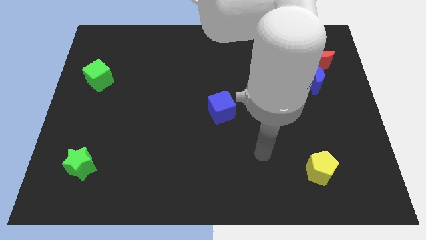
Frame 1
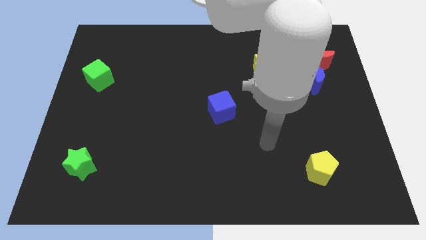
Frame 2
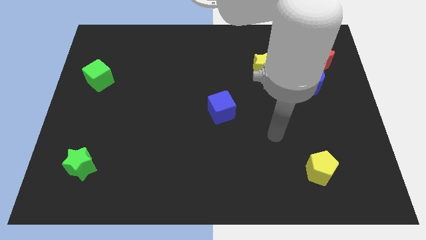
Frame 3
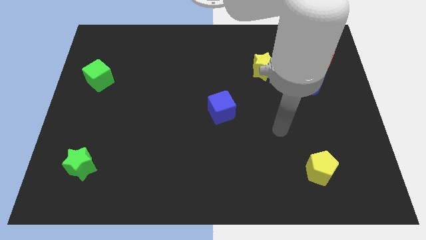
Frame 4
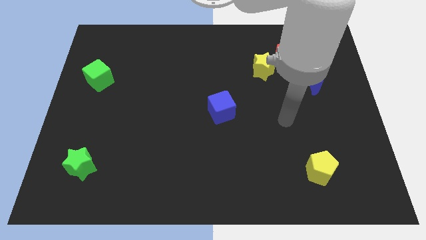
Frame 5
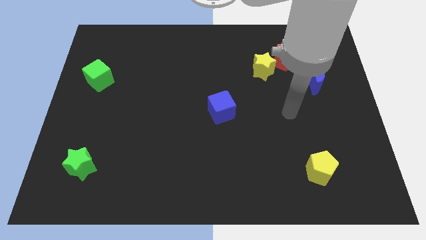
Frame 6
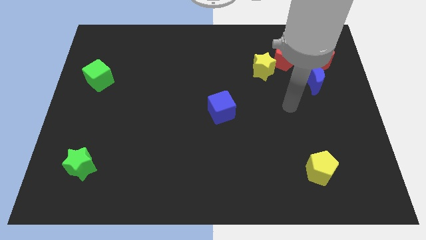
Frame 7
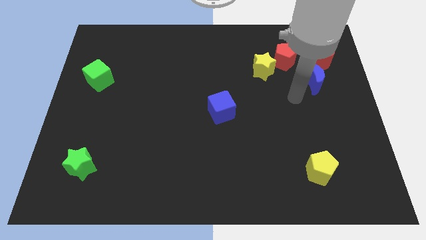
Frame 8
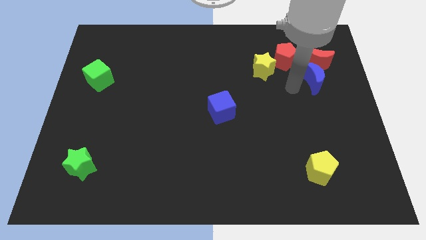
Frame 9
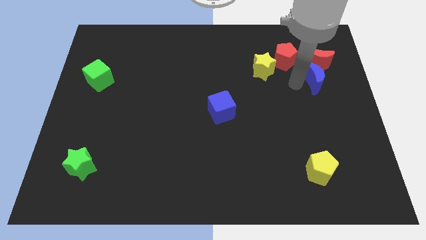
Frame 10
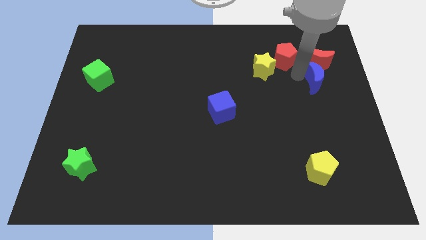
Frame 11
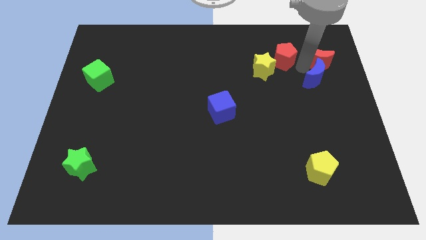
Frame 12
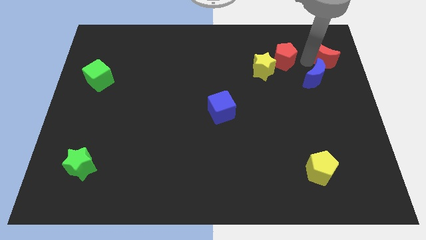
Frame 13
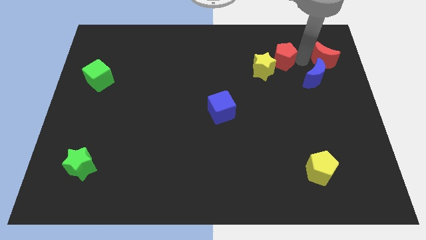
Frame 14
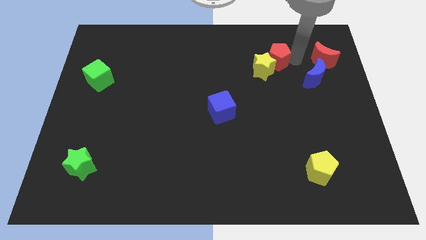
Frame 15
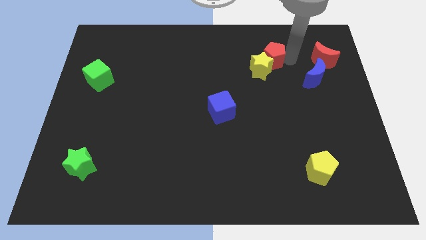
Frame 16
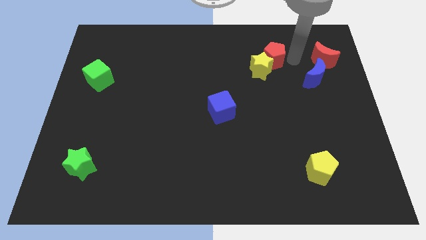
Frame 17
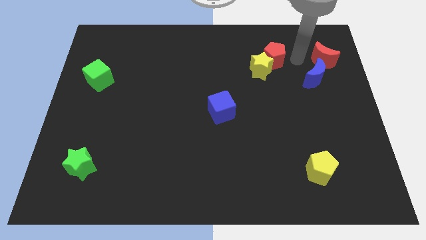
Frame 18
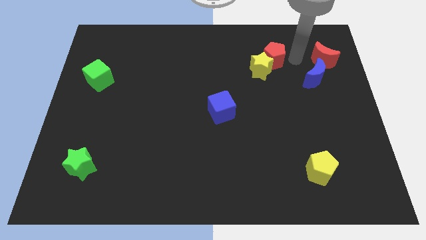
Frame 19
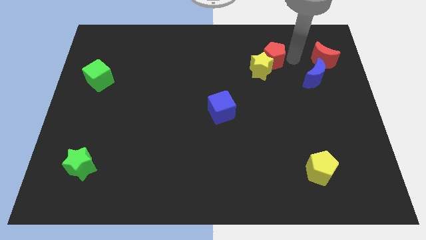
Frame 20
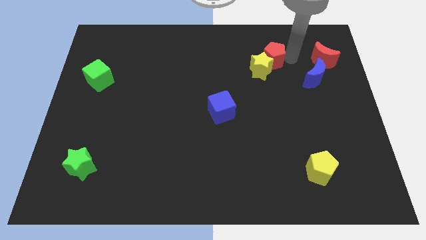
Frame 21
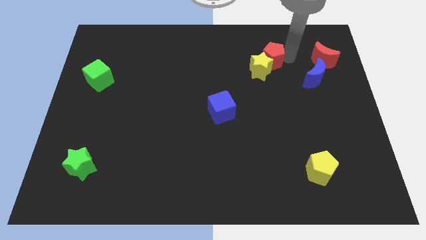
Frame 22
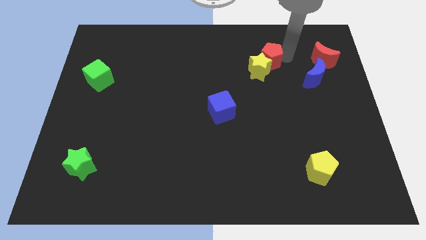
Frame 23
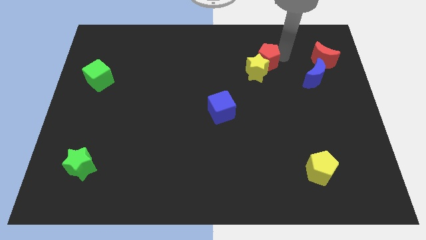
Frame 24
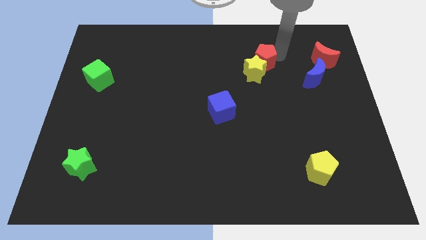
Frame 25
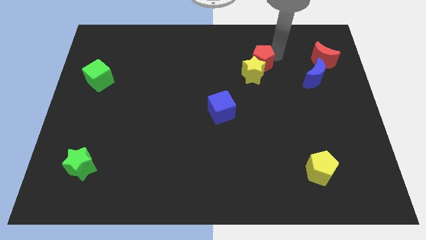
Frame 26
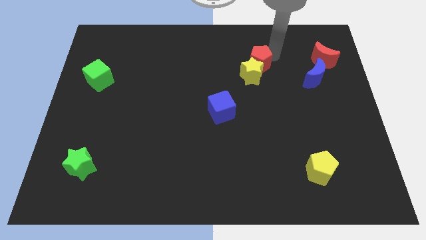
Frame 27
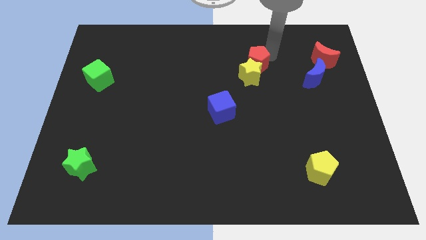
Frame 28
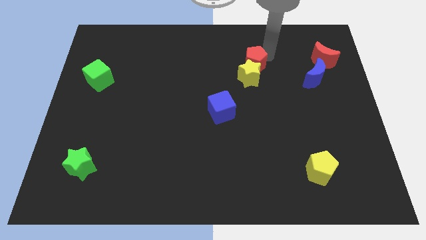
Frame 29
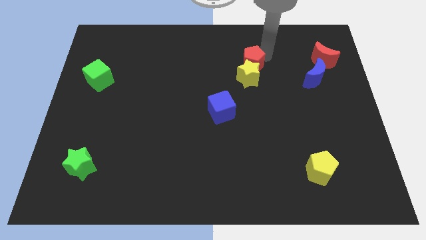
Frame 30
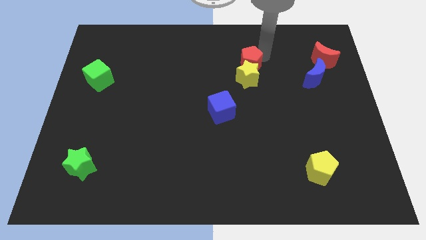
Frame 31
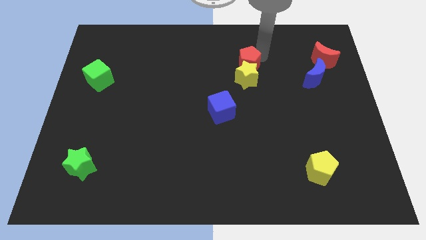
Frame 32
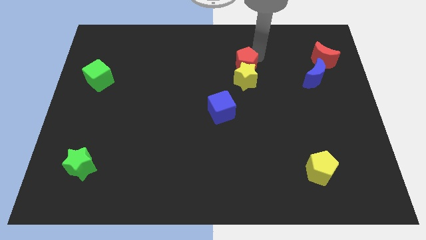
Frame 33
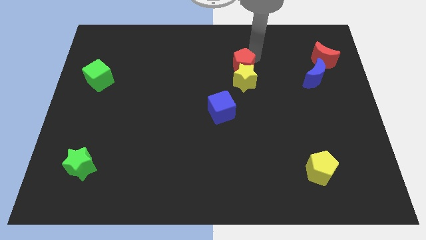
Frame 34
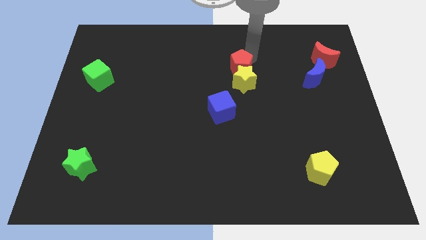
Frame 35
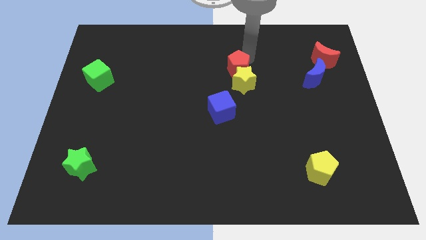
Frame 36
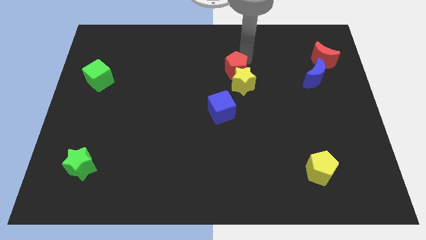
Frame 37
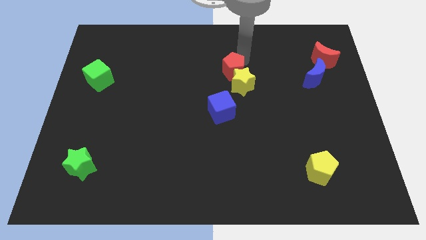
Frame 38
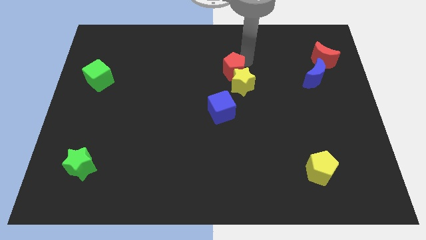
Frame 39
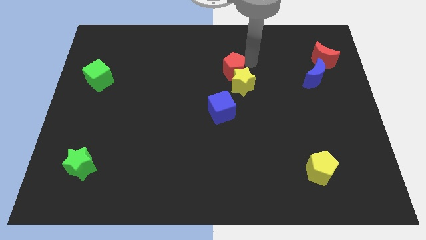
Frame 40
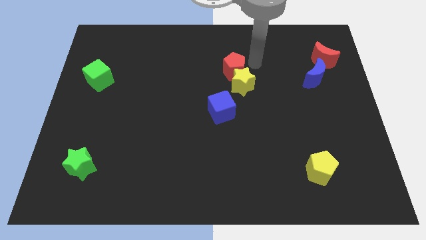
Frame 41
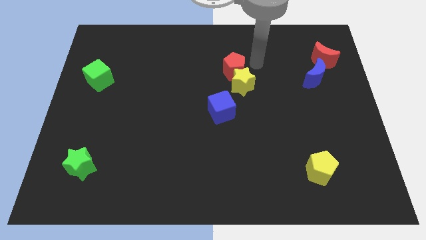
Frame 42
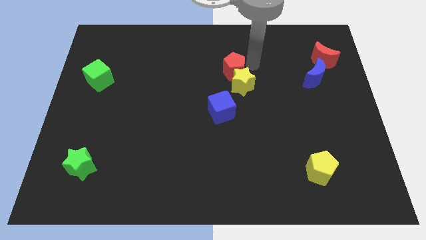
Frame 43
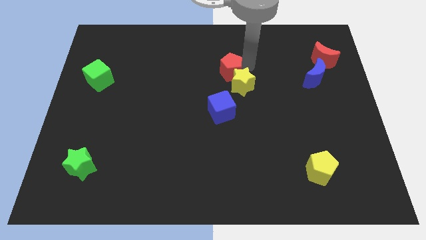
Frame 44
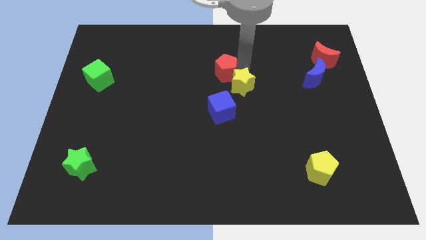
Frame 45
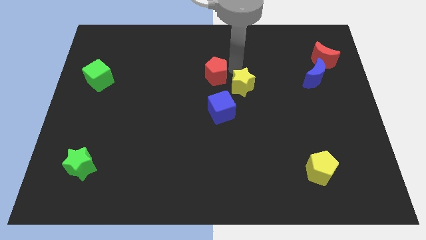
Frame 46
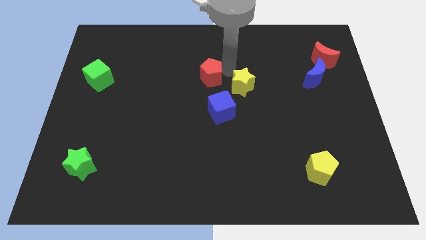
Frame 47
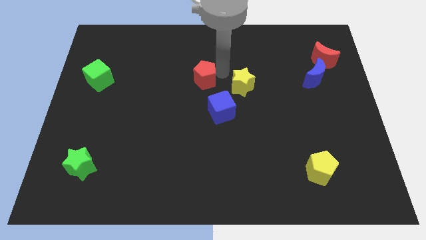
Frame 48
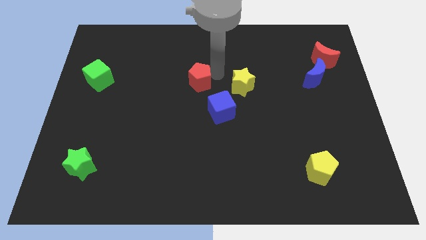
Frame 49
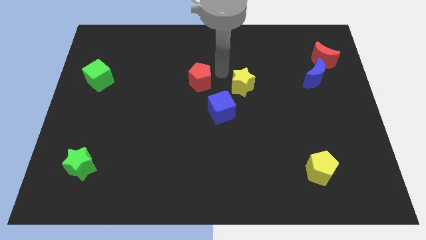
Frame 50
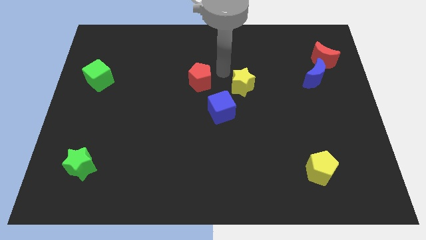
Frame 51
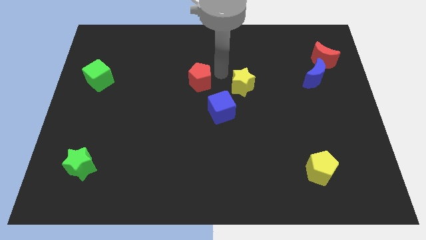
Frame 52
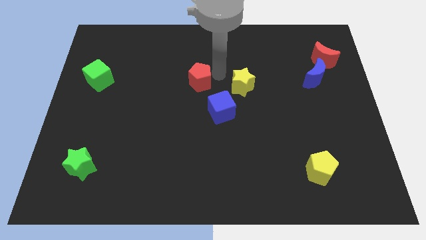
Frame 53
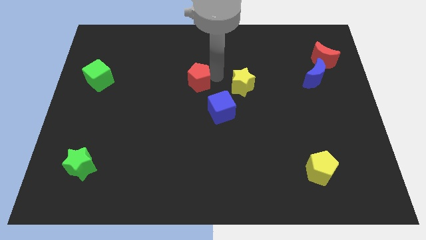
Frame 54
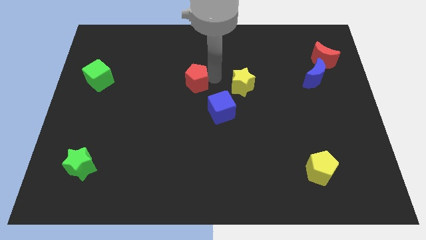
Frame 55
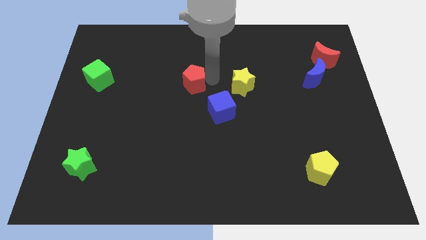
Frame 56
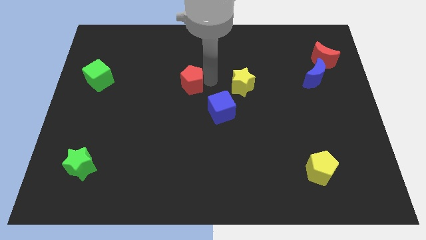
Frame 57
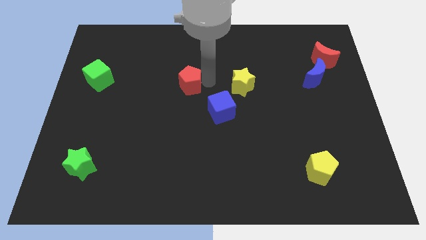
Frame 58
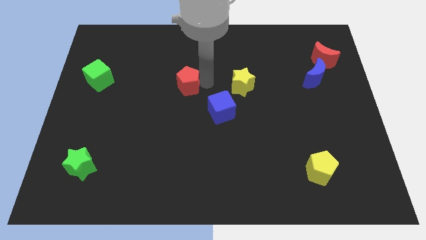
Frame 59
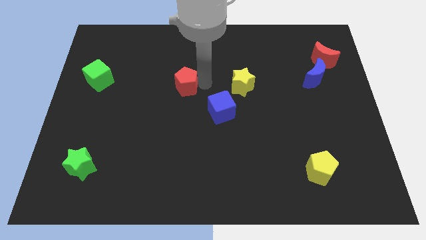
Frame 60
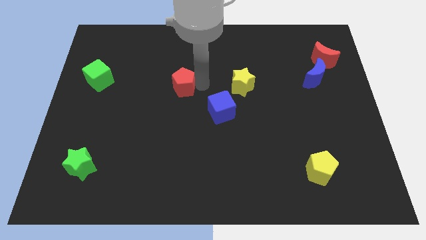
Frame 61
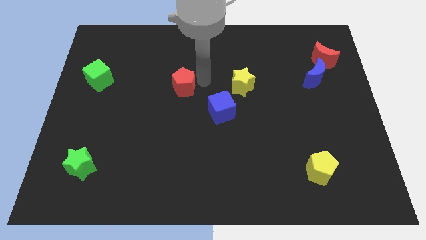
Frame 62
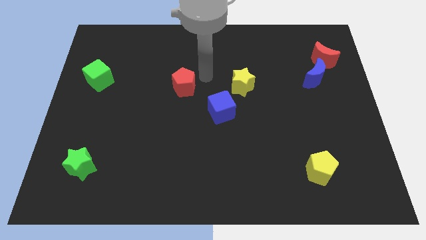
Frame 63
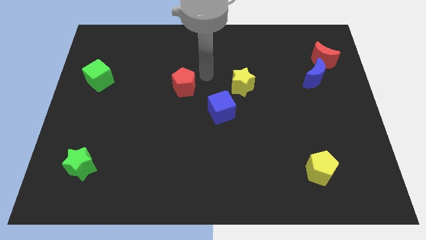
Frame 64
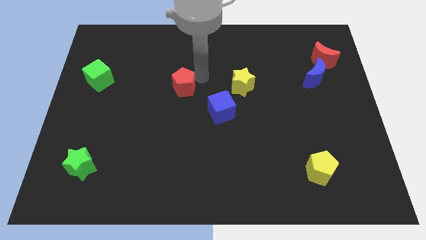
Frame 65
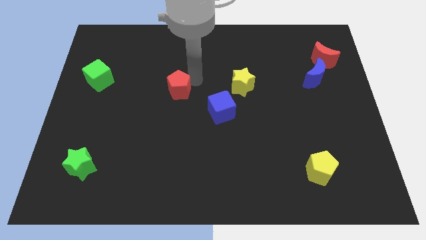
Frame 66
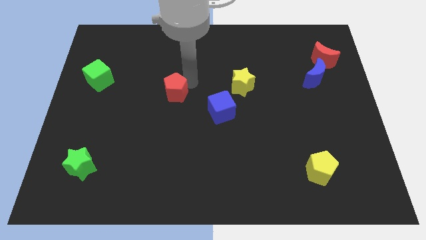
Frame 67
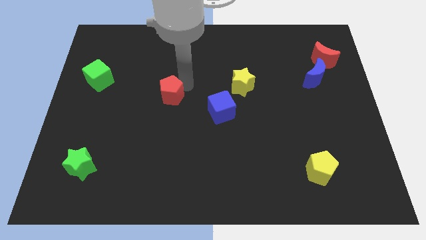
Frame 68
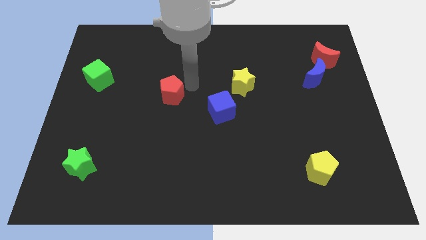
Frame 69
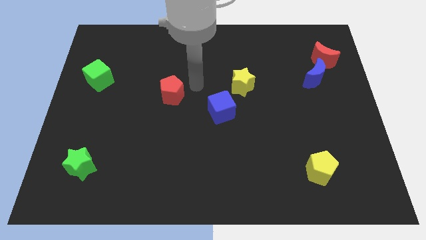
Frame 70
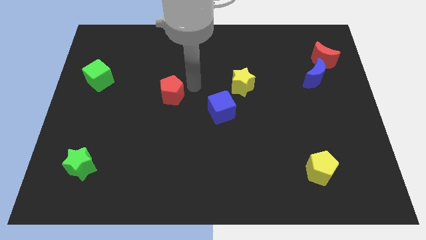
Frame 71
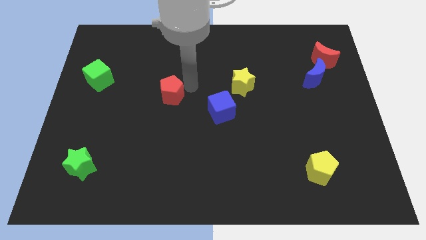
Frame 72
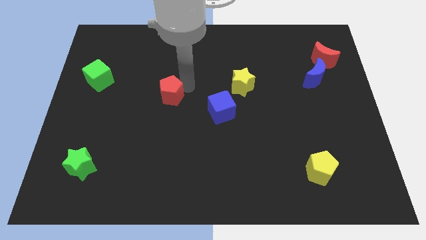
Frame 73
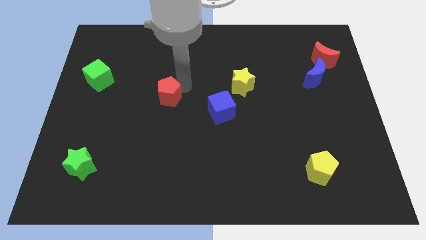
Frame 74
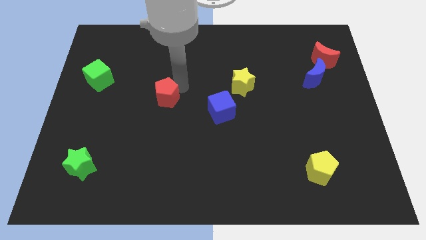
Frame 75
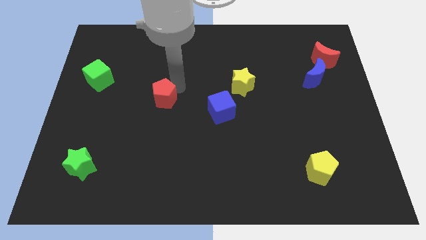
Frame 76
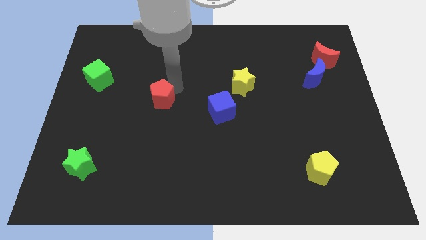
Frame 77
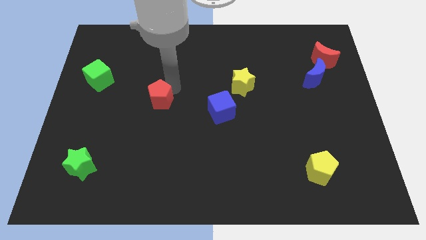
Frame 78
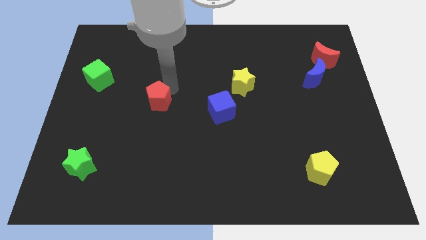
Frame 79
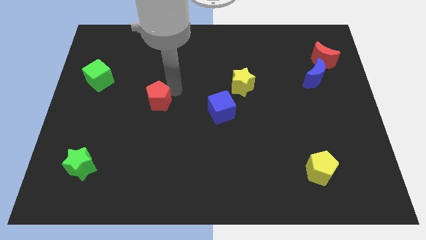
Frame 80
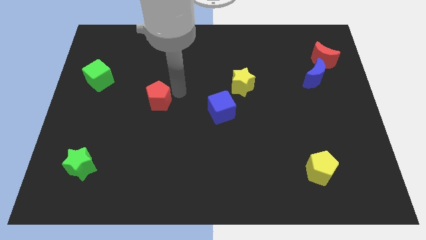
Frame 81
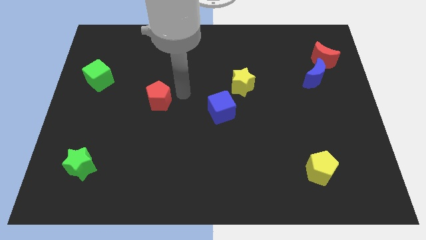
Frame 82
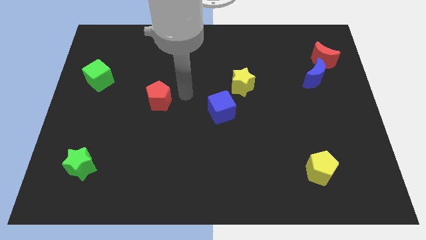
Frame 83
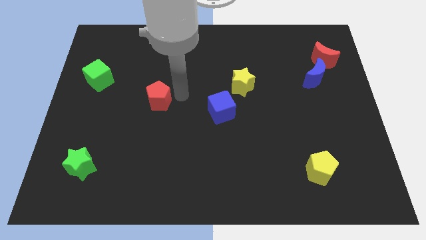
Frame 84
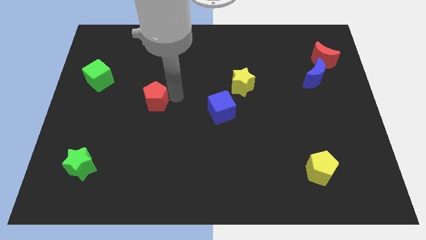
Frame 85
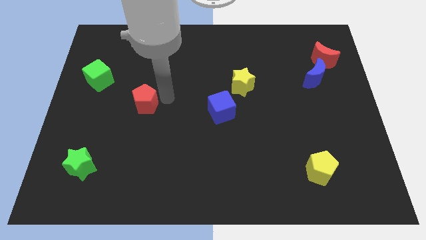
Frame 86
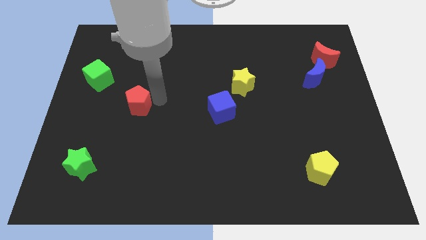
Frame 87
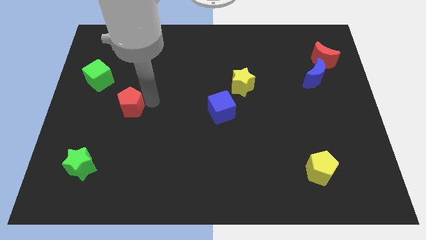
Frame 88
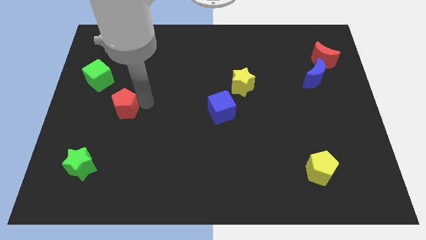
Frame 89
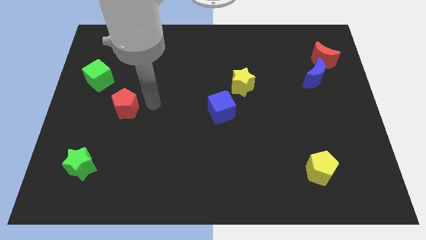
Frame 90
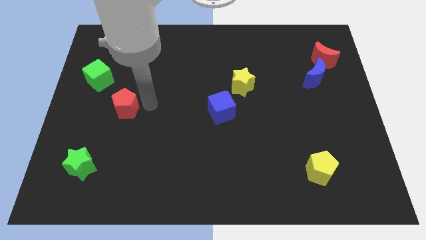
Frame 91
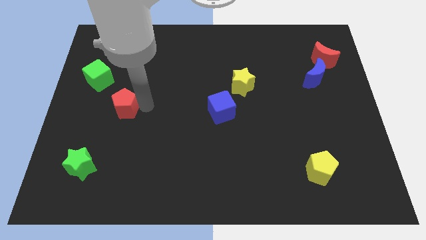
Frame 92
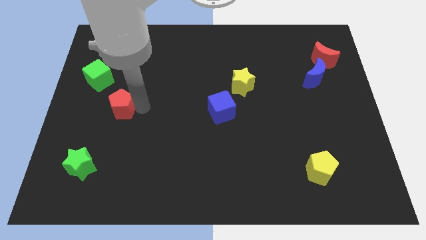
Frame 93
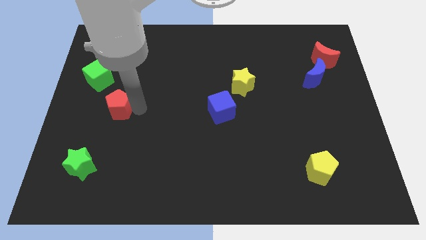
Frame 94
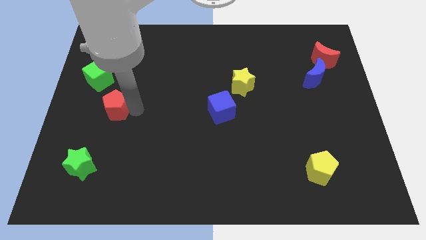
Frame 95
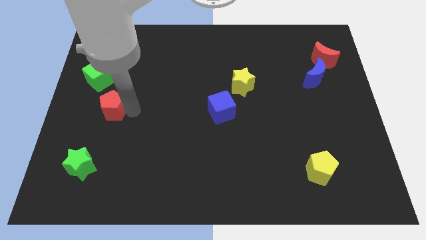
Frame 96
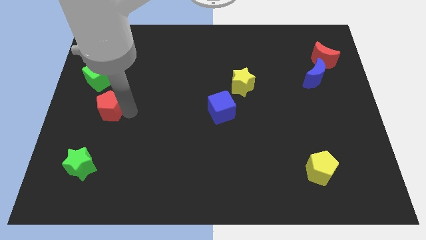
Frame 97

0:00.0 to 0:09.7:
slide the red pentagon below the green cube
